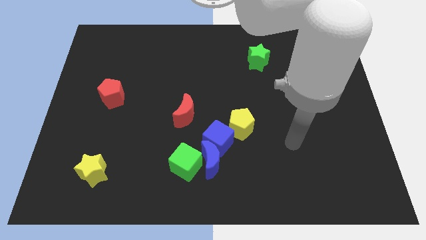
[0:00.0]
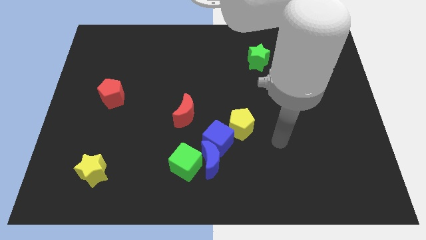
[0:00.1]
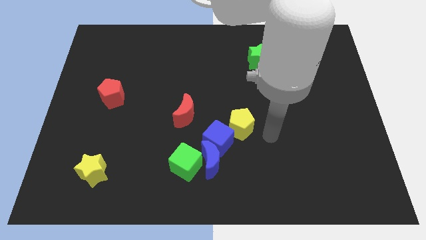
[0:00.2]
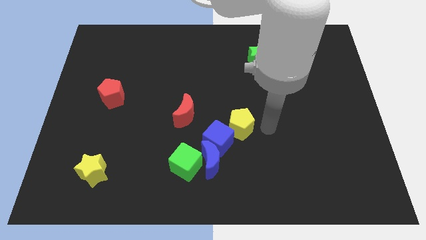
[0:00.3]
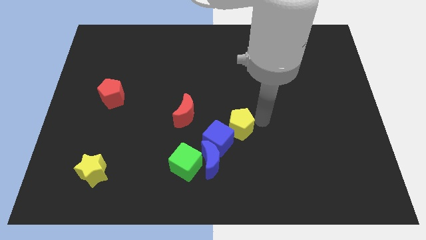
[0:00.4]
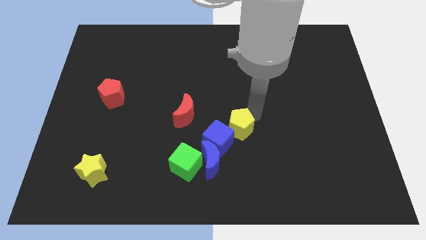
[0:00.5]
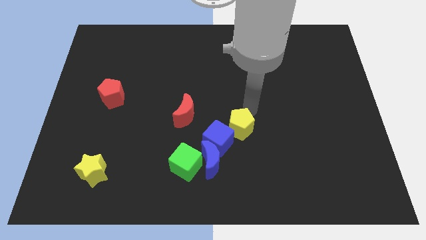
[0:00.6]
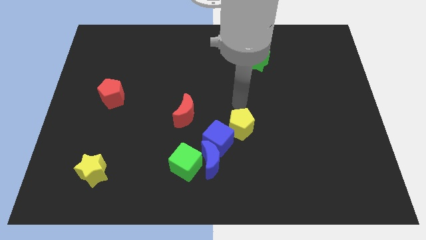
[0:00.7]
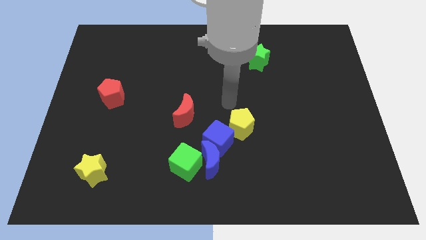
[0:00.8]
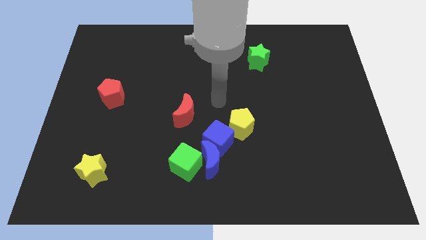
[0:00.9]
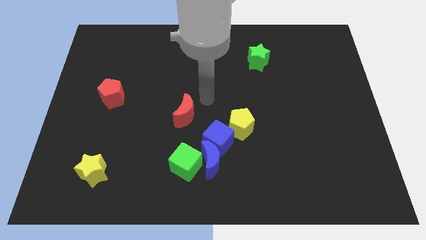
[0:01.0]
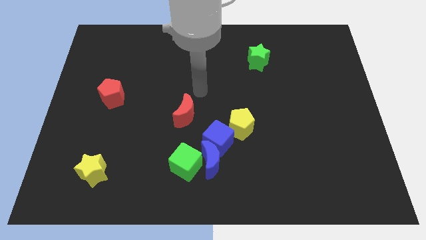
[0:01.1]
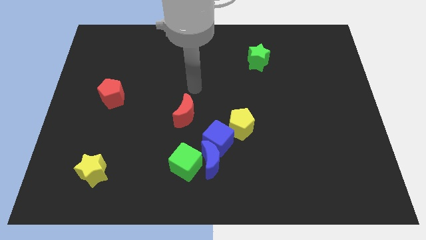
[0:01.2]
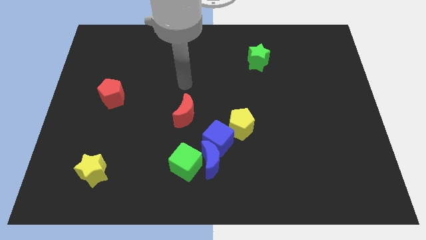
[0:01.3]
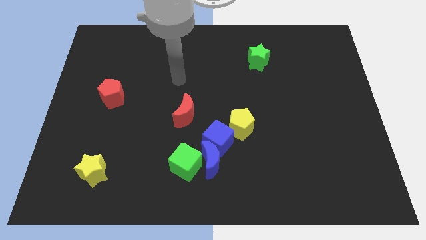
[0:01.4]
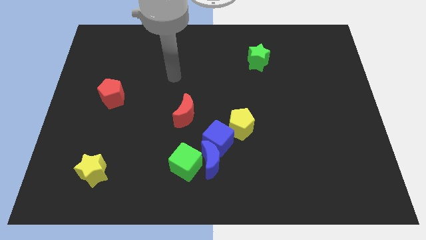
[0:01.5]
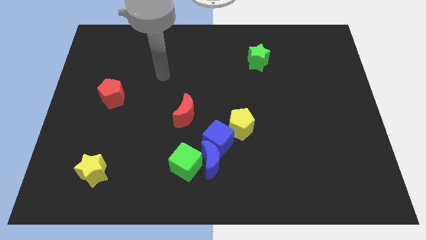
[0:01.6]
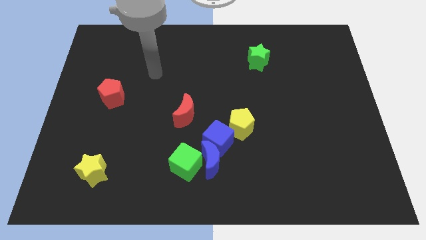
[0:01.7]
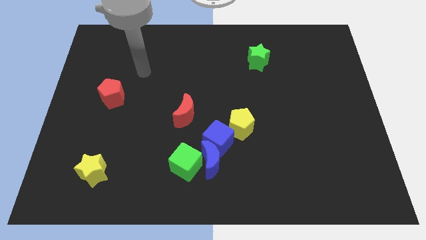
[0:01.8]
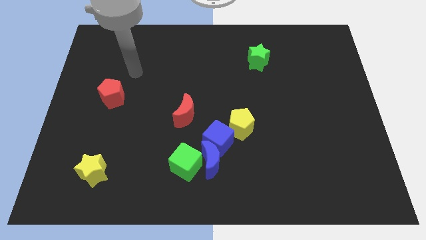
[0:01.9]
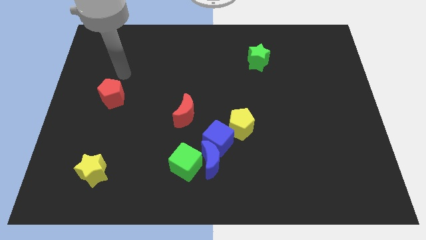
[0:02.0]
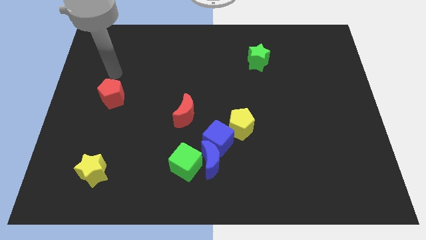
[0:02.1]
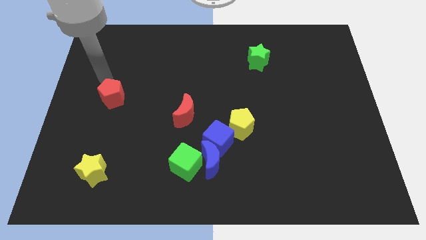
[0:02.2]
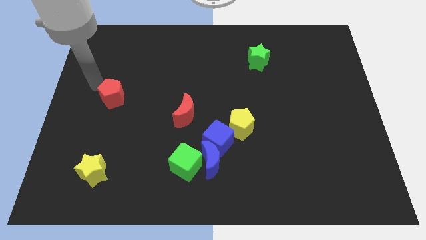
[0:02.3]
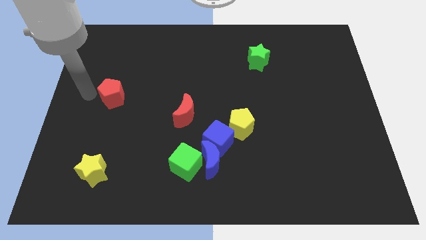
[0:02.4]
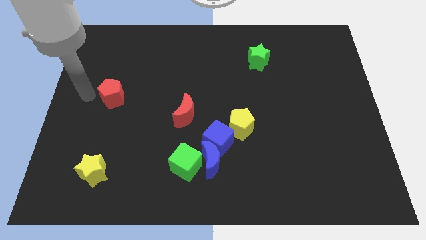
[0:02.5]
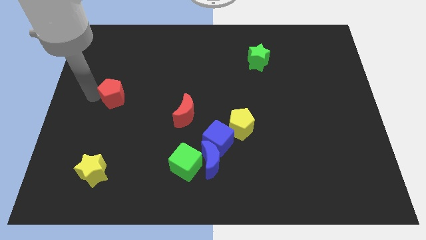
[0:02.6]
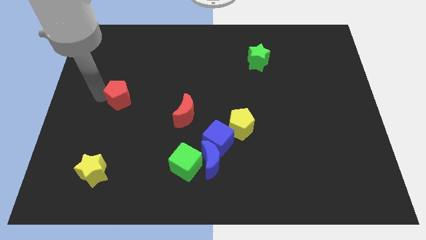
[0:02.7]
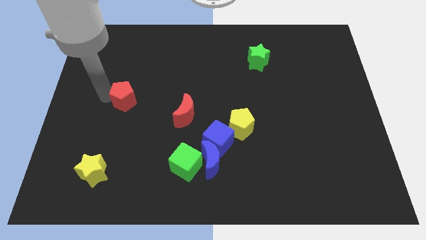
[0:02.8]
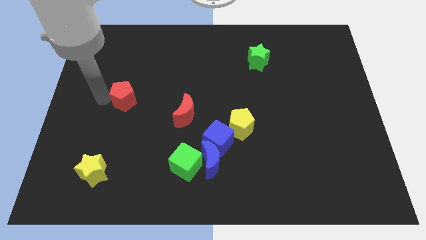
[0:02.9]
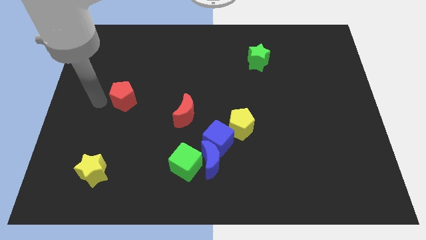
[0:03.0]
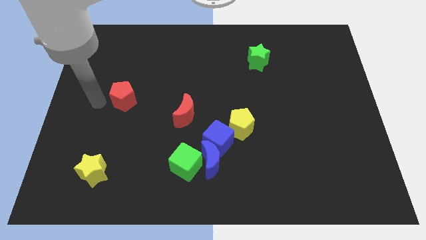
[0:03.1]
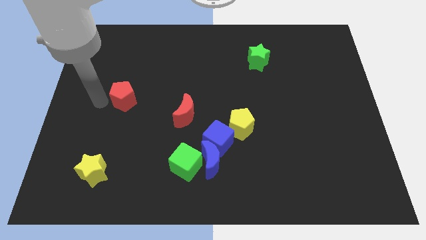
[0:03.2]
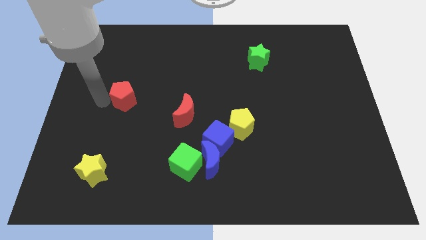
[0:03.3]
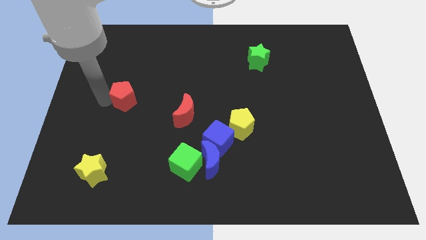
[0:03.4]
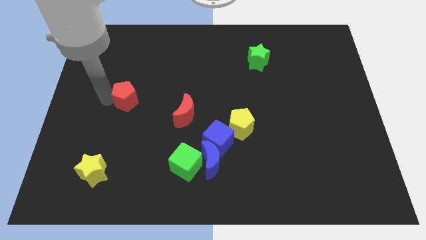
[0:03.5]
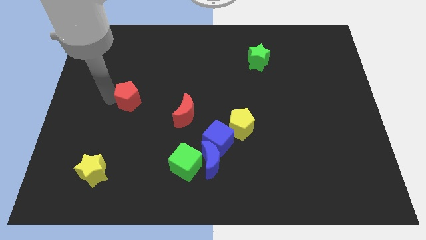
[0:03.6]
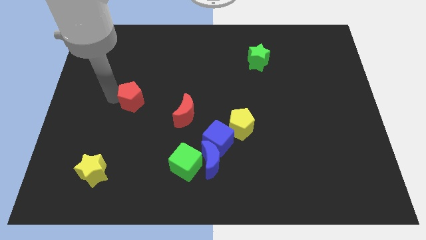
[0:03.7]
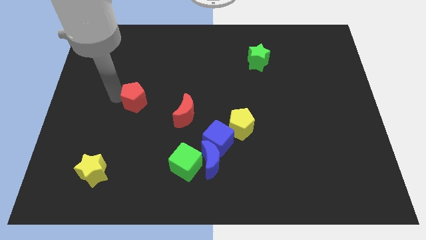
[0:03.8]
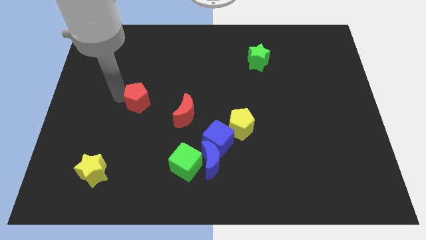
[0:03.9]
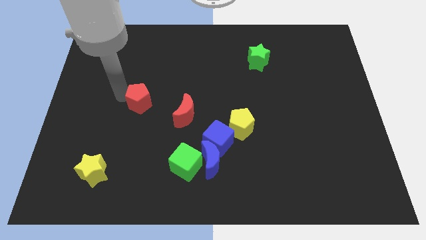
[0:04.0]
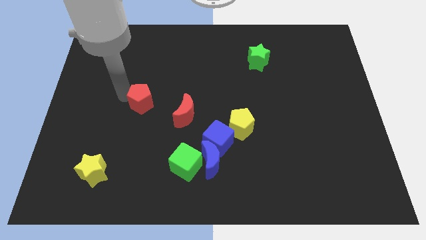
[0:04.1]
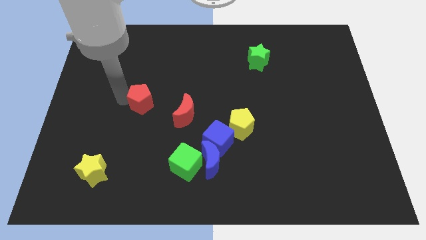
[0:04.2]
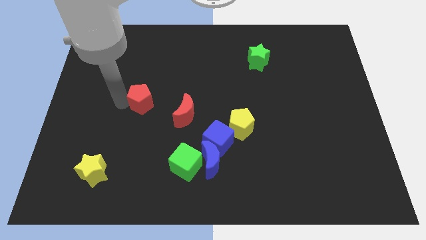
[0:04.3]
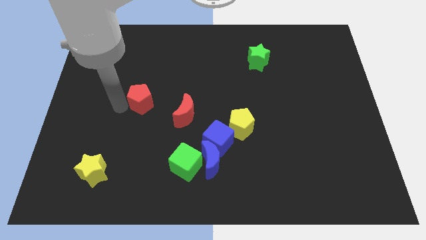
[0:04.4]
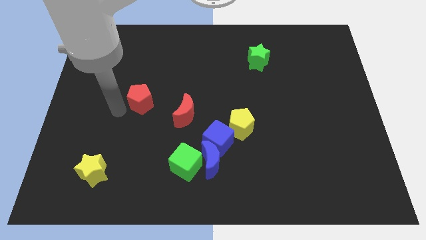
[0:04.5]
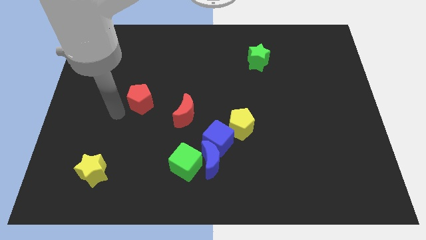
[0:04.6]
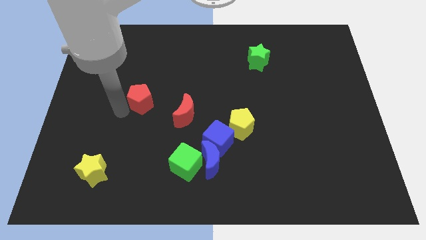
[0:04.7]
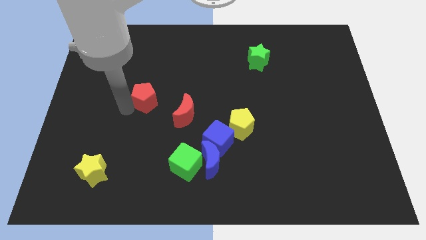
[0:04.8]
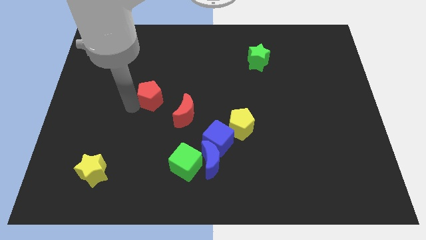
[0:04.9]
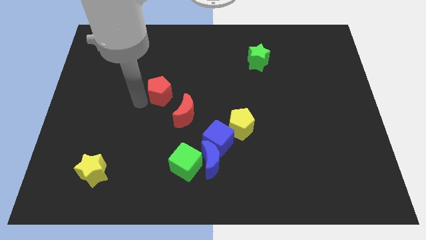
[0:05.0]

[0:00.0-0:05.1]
put the red pentagon to the center of the board

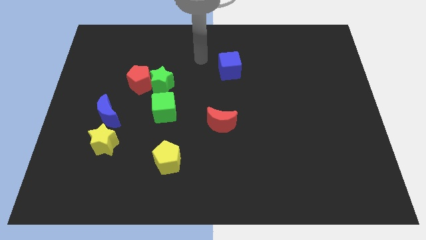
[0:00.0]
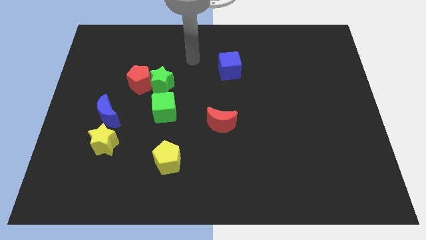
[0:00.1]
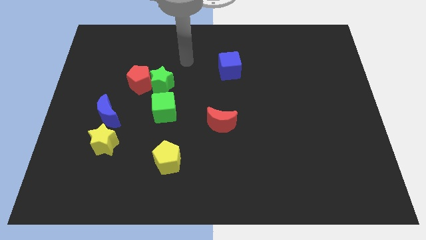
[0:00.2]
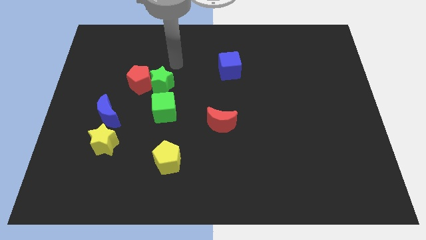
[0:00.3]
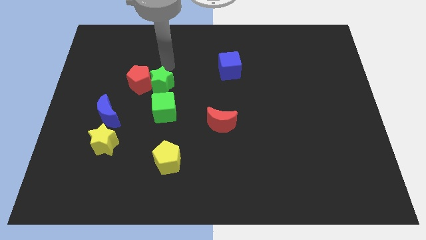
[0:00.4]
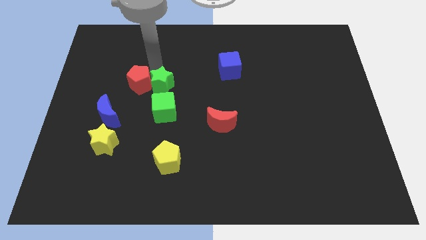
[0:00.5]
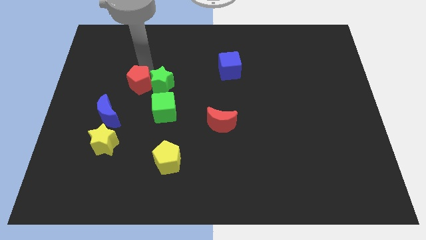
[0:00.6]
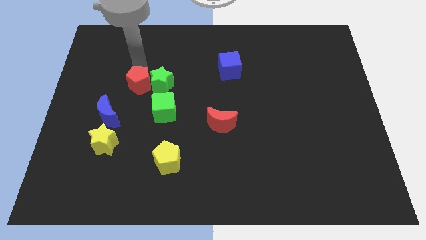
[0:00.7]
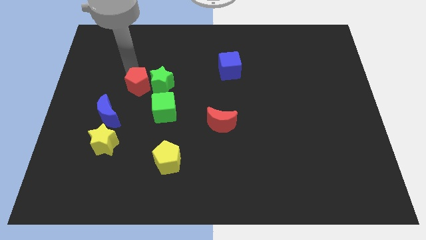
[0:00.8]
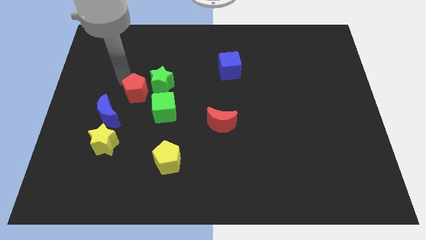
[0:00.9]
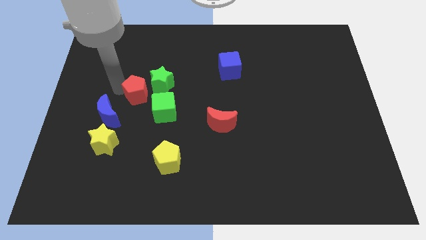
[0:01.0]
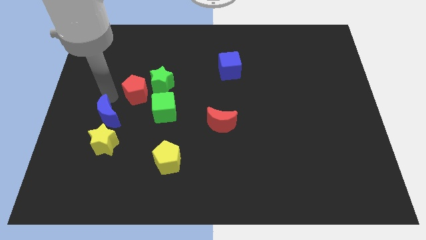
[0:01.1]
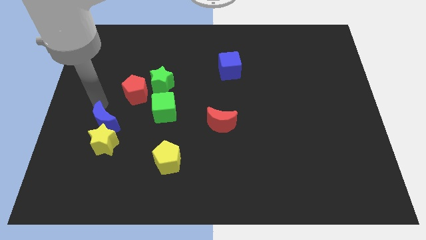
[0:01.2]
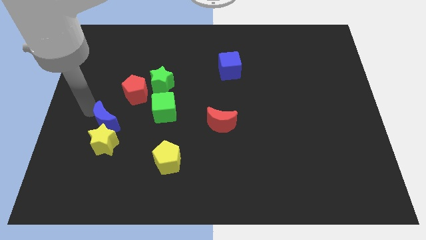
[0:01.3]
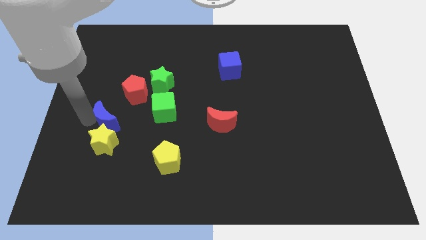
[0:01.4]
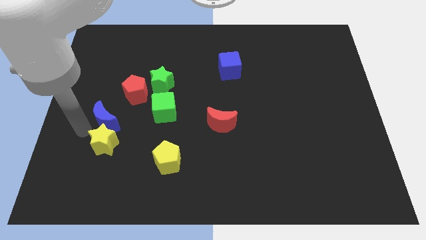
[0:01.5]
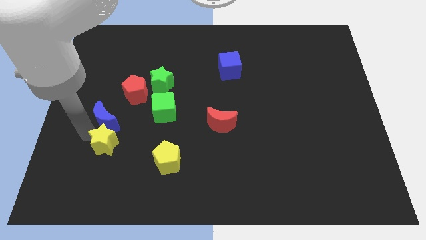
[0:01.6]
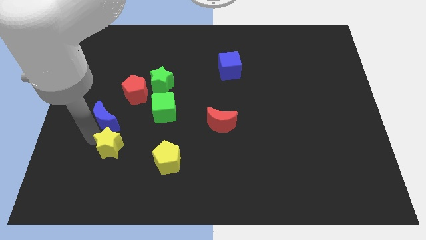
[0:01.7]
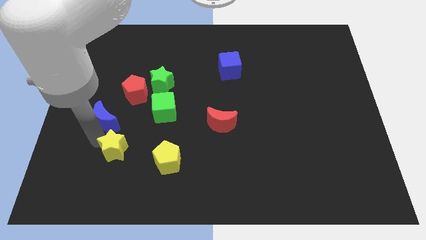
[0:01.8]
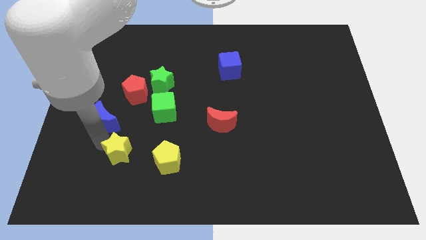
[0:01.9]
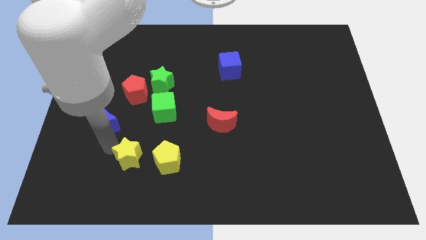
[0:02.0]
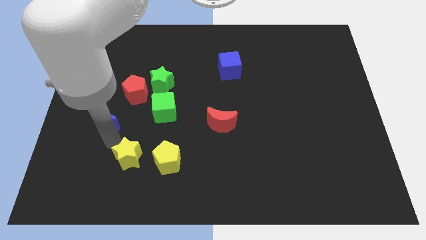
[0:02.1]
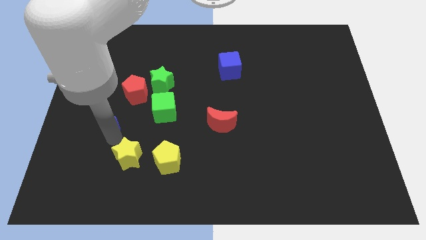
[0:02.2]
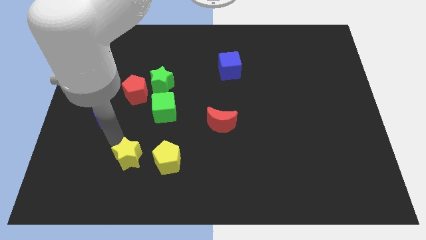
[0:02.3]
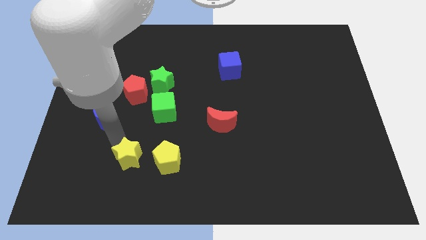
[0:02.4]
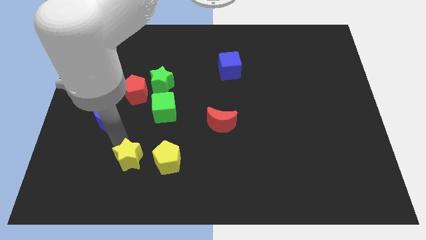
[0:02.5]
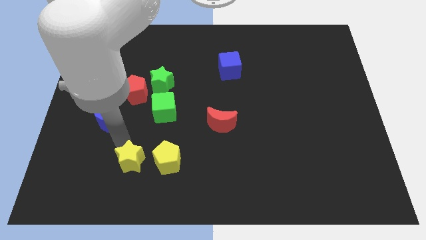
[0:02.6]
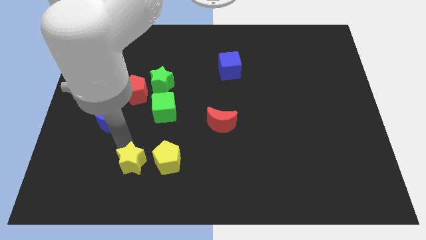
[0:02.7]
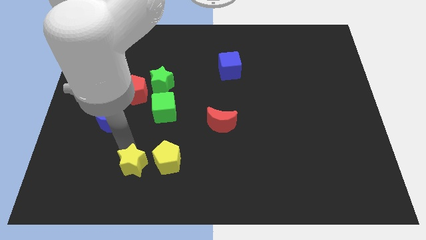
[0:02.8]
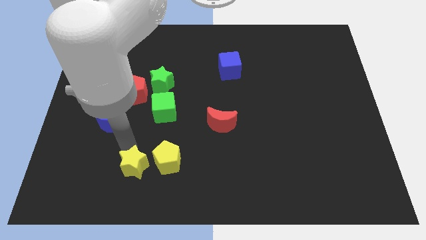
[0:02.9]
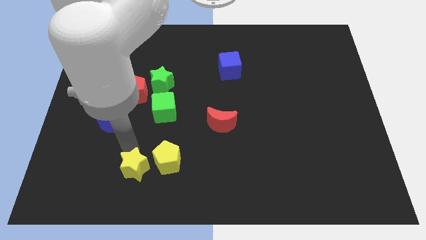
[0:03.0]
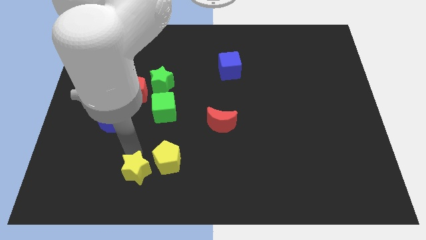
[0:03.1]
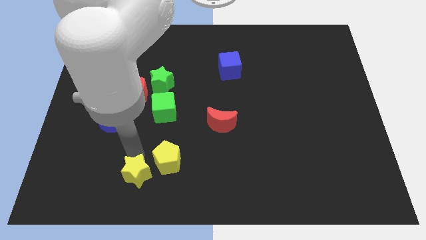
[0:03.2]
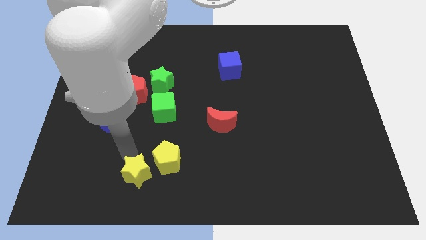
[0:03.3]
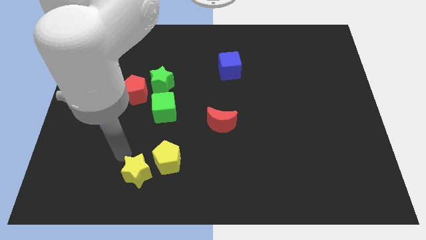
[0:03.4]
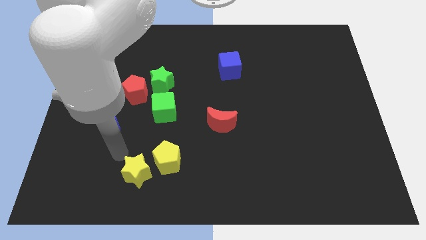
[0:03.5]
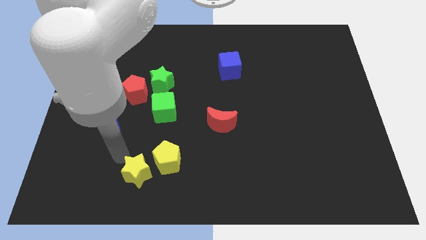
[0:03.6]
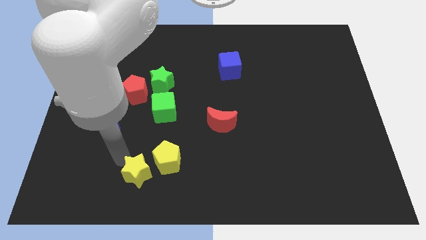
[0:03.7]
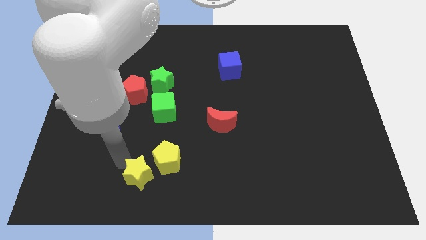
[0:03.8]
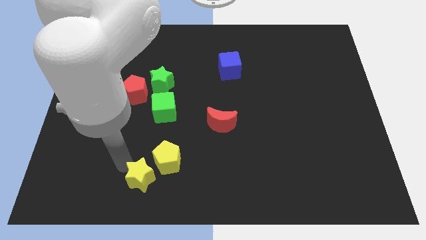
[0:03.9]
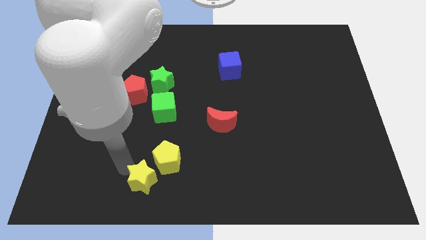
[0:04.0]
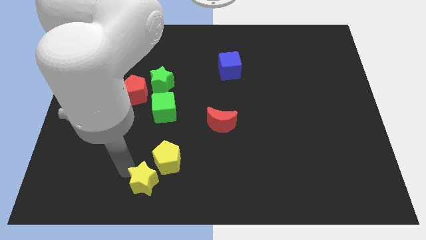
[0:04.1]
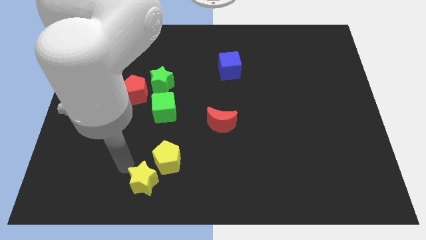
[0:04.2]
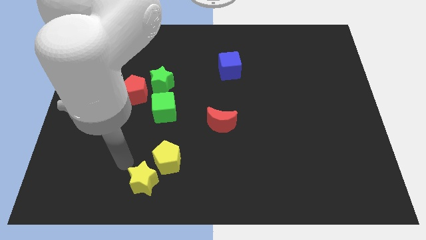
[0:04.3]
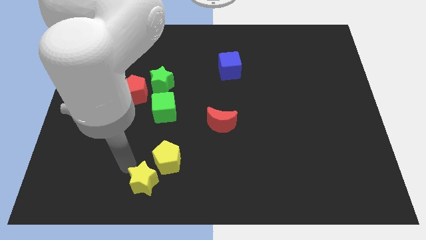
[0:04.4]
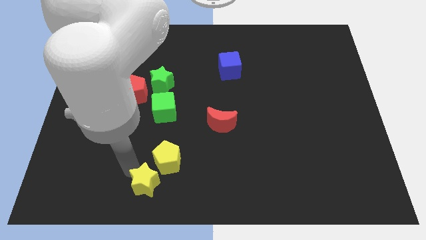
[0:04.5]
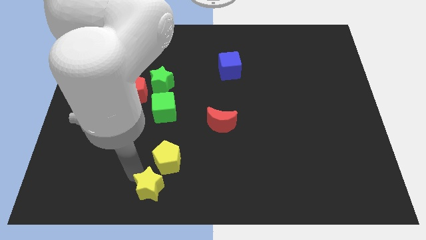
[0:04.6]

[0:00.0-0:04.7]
move the yellow star to the bottom
